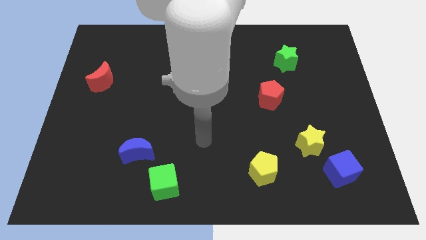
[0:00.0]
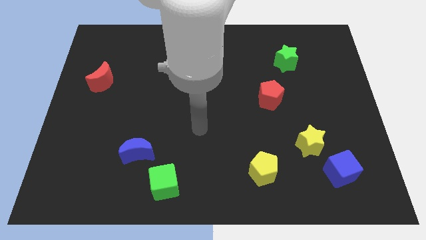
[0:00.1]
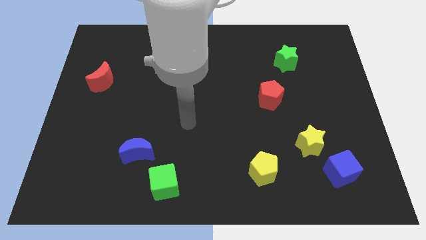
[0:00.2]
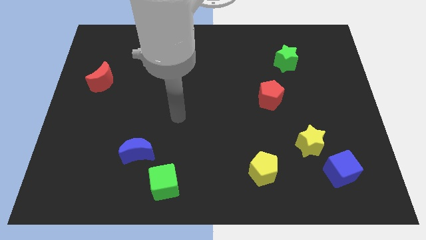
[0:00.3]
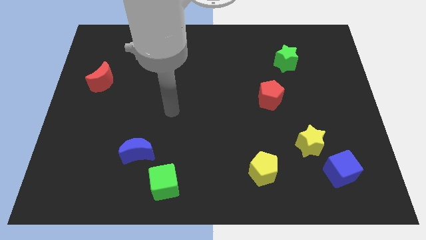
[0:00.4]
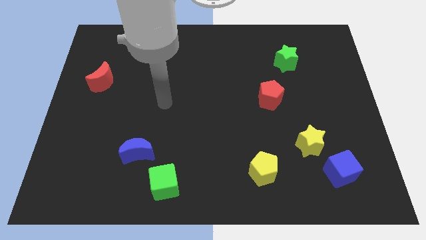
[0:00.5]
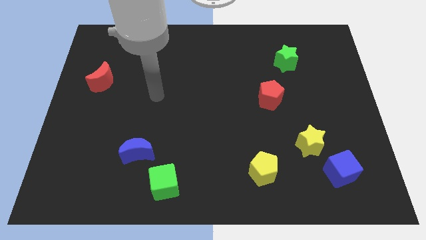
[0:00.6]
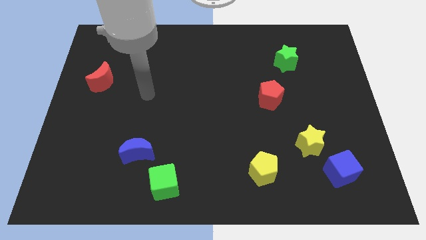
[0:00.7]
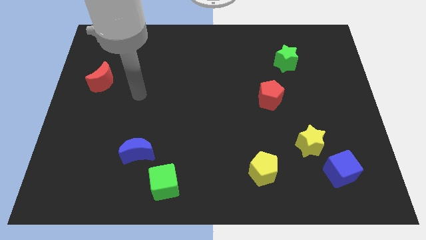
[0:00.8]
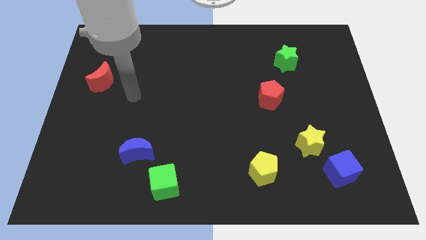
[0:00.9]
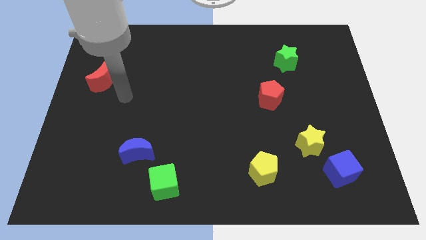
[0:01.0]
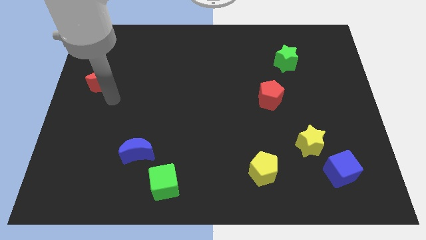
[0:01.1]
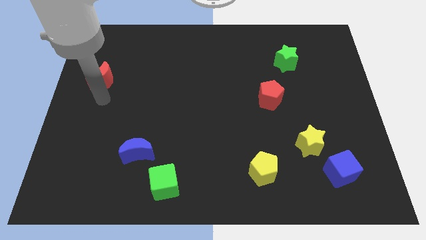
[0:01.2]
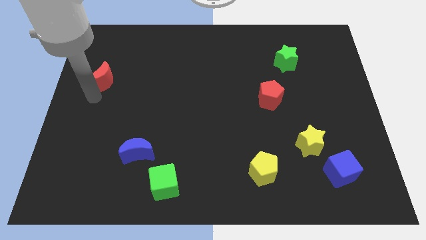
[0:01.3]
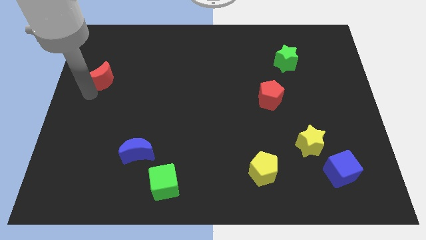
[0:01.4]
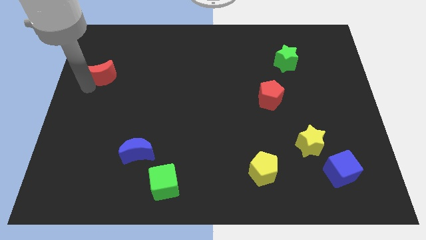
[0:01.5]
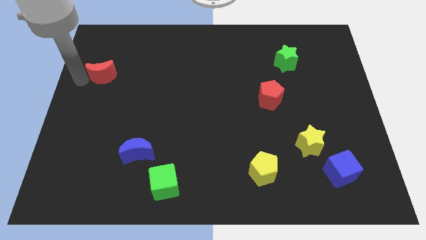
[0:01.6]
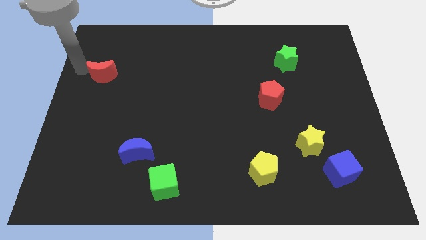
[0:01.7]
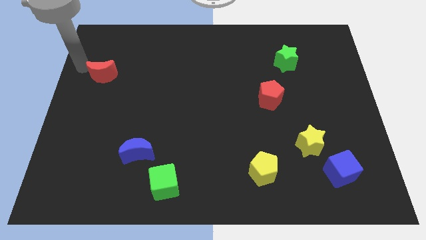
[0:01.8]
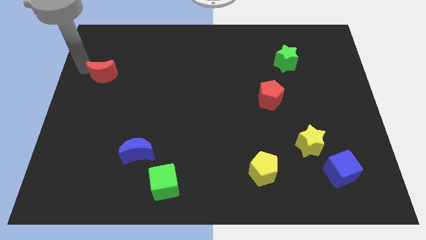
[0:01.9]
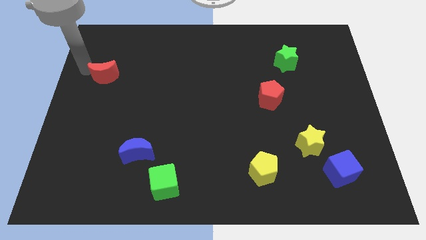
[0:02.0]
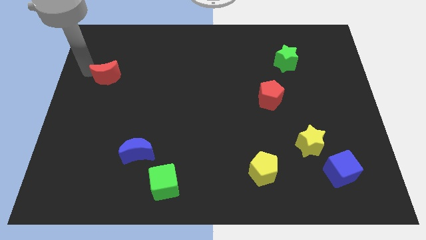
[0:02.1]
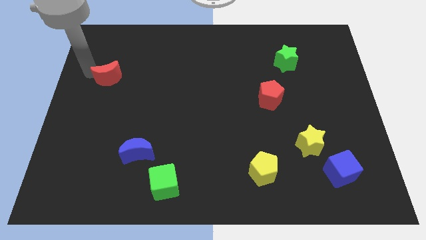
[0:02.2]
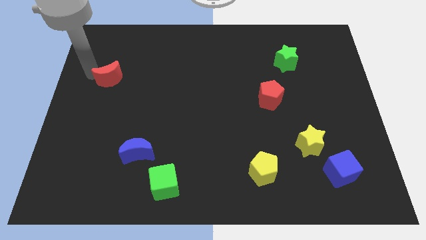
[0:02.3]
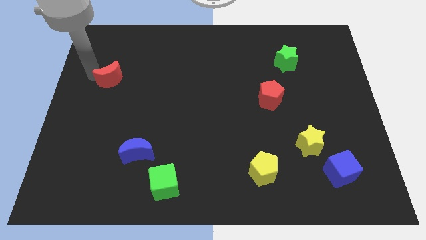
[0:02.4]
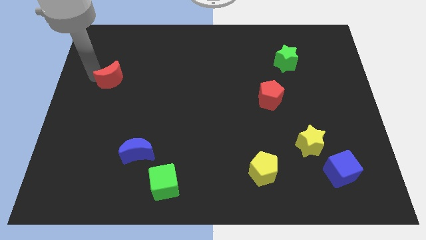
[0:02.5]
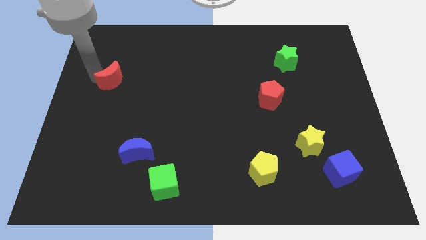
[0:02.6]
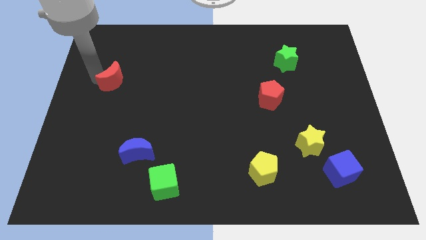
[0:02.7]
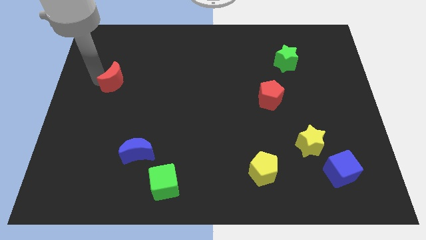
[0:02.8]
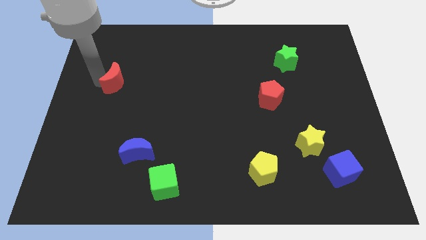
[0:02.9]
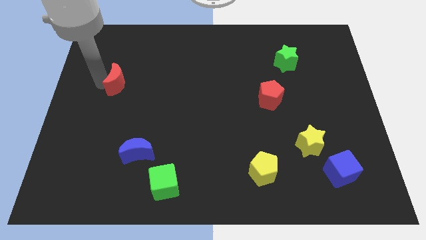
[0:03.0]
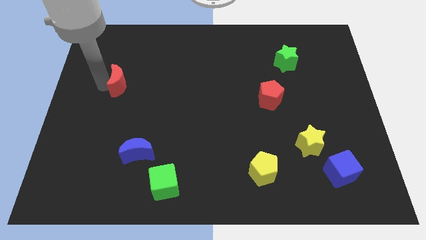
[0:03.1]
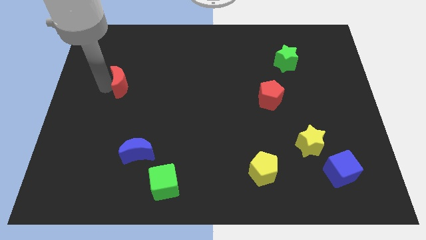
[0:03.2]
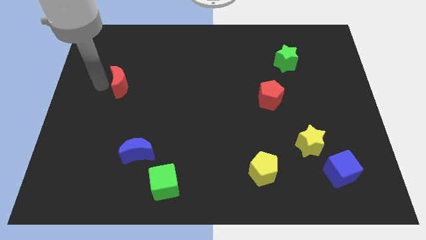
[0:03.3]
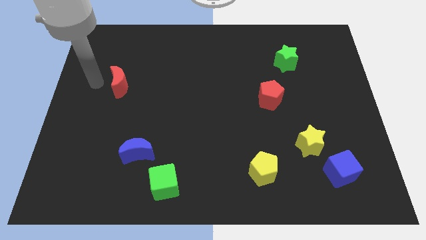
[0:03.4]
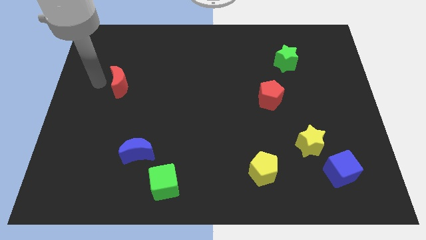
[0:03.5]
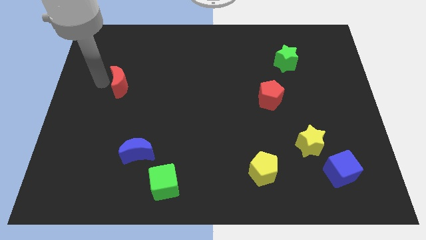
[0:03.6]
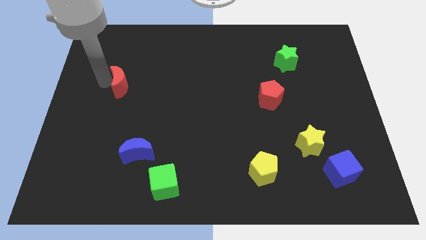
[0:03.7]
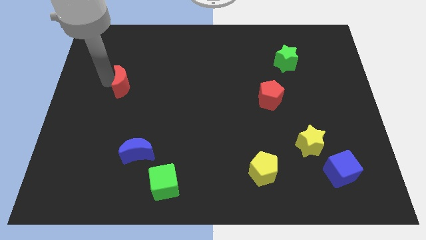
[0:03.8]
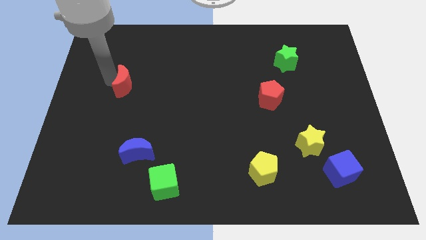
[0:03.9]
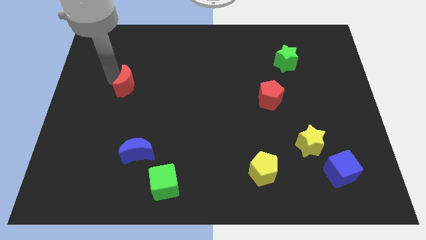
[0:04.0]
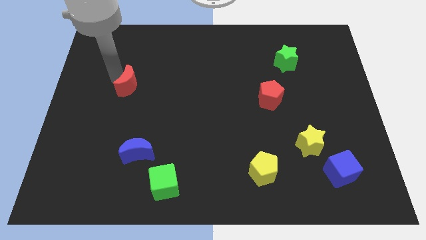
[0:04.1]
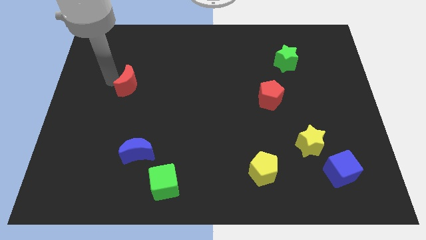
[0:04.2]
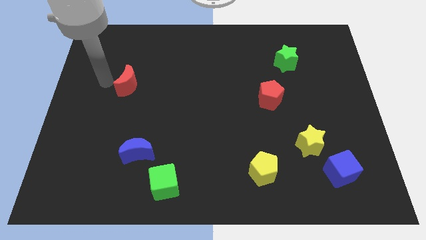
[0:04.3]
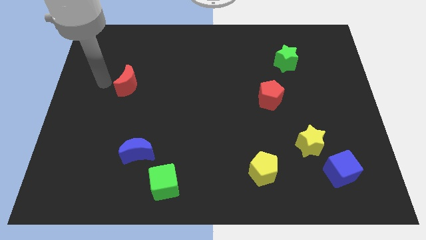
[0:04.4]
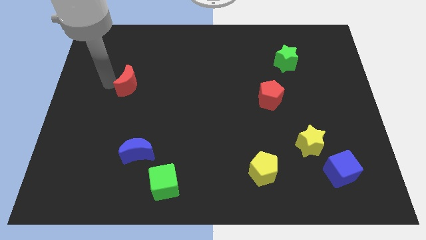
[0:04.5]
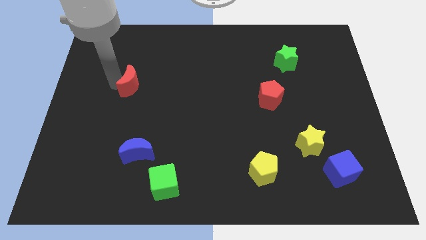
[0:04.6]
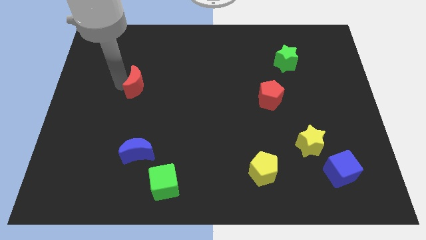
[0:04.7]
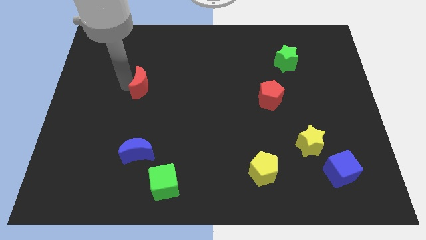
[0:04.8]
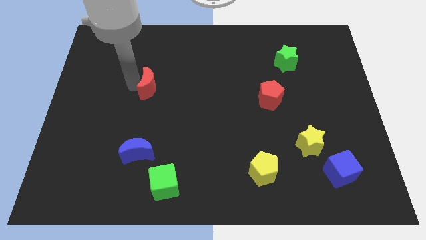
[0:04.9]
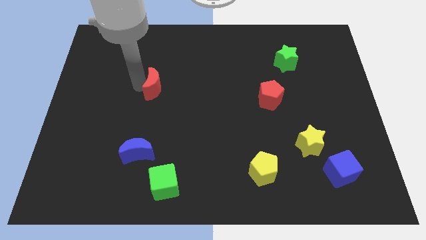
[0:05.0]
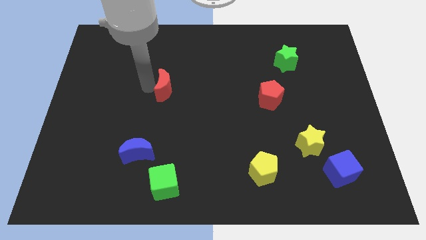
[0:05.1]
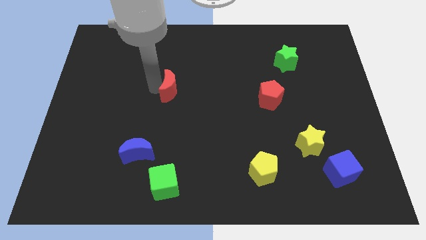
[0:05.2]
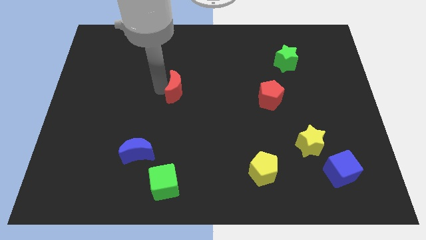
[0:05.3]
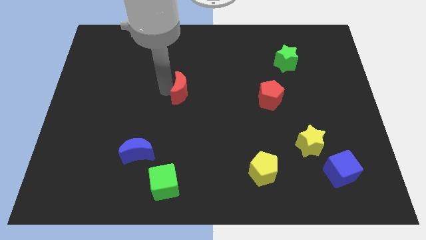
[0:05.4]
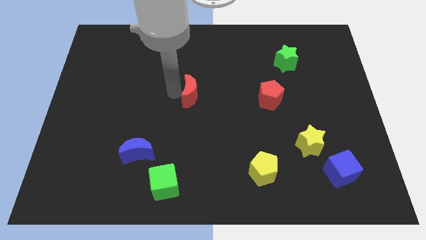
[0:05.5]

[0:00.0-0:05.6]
push the red moon to the right

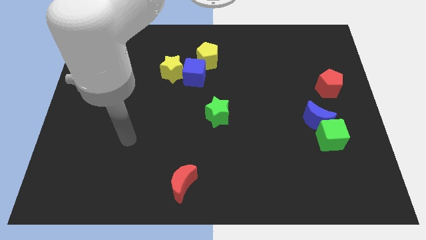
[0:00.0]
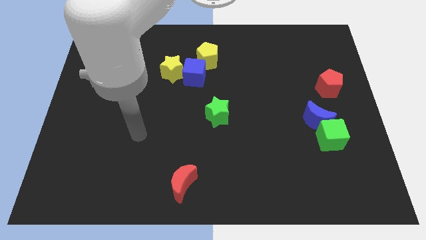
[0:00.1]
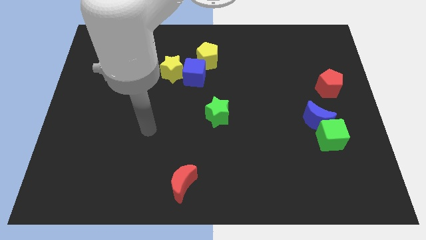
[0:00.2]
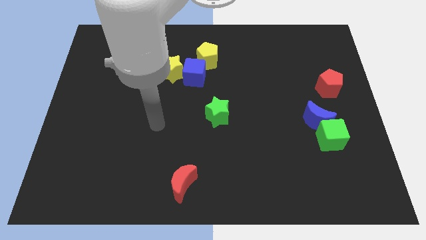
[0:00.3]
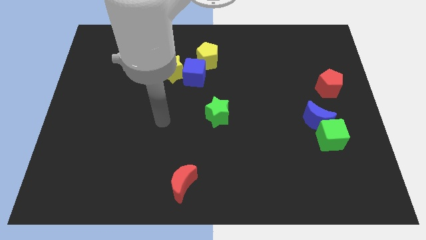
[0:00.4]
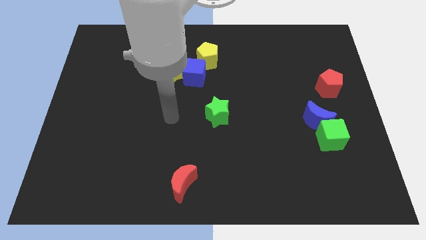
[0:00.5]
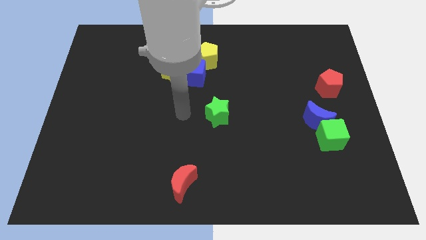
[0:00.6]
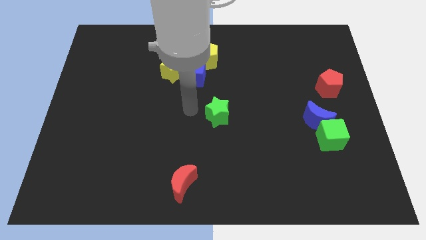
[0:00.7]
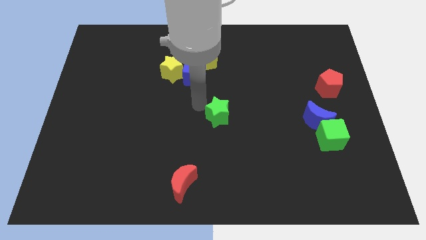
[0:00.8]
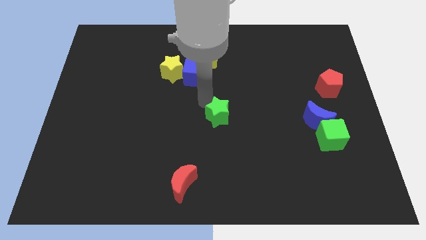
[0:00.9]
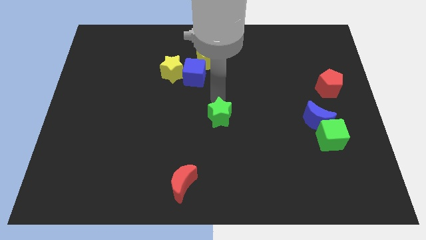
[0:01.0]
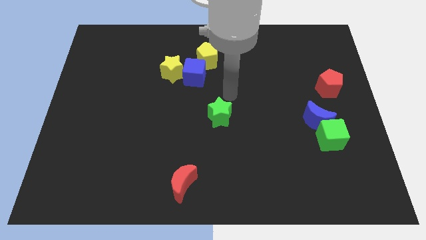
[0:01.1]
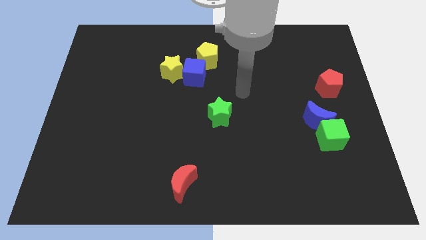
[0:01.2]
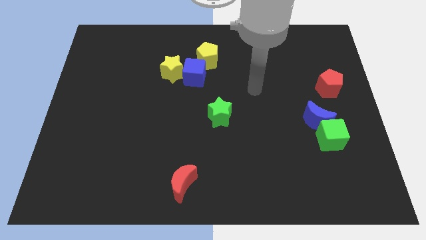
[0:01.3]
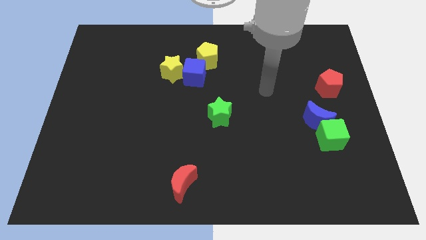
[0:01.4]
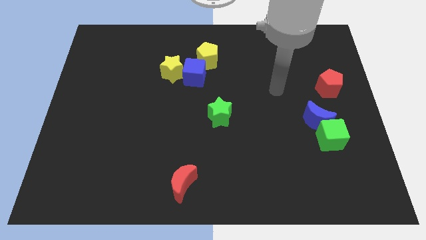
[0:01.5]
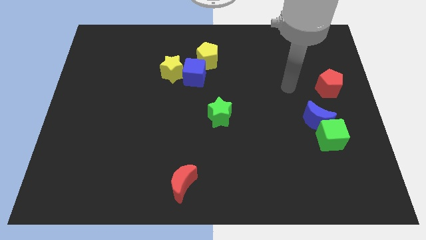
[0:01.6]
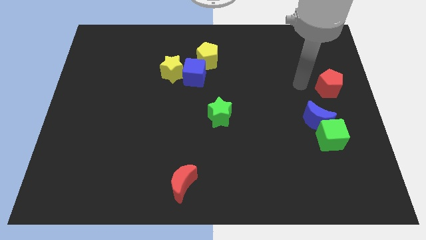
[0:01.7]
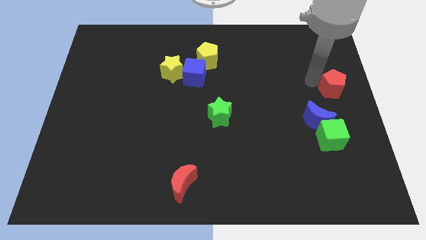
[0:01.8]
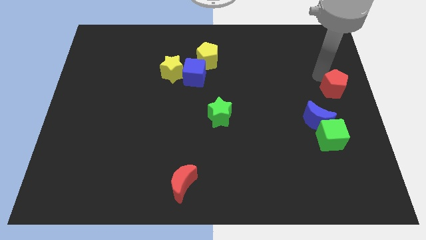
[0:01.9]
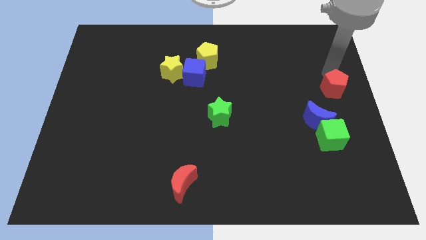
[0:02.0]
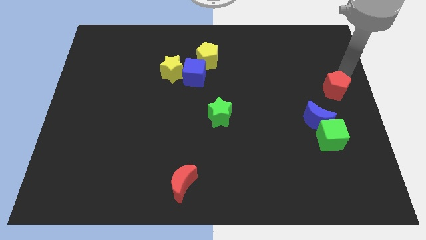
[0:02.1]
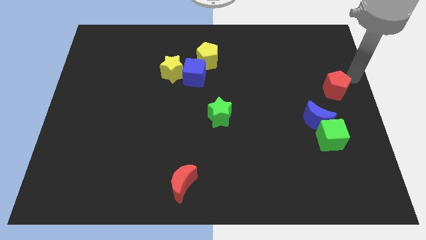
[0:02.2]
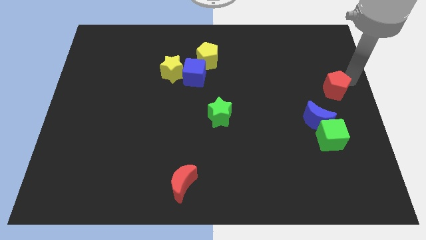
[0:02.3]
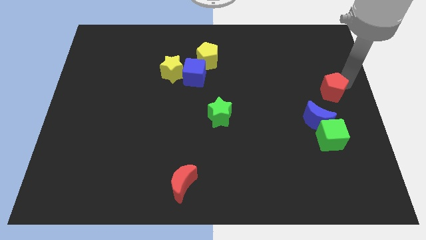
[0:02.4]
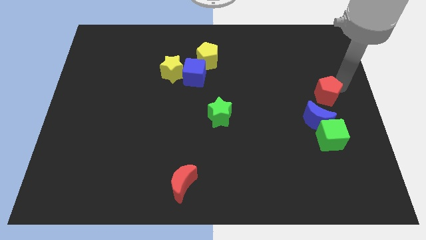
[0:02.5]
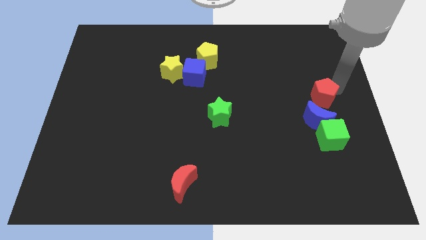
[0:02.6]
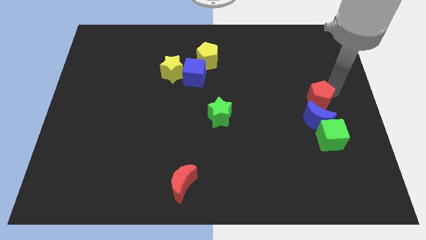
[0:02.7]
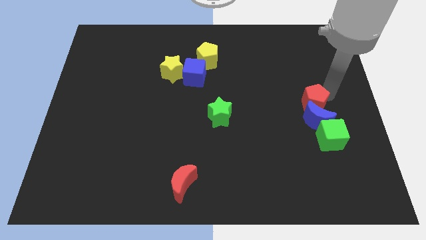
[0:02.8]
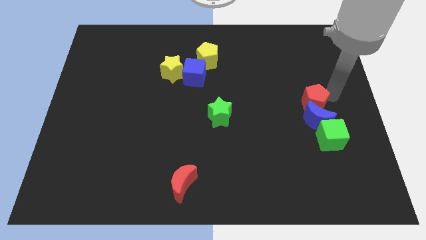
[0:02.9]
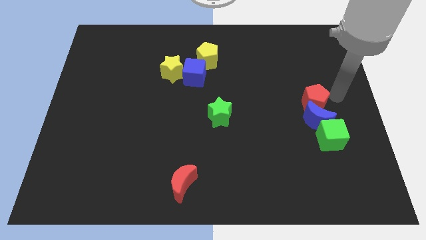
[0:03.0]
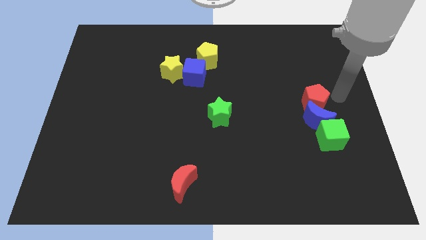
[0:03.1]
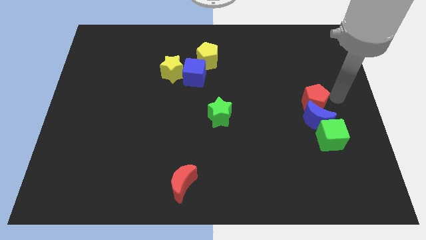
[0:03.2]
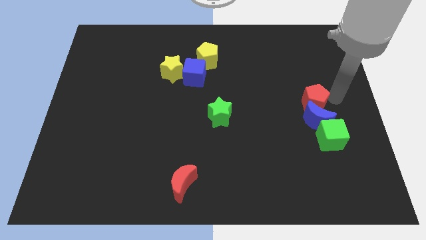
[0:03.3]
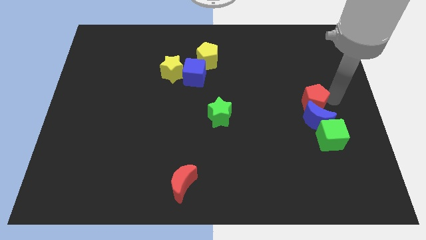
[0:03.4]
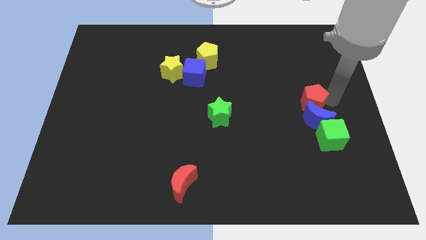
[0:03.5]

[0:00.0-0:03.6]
move the red pentagon a bit down and to the left diagonally
